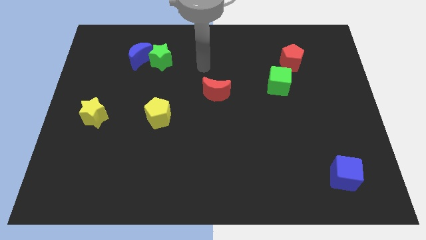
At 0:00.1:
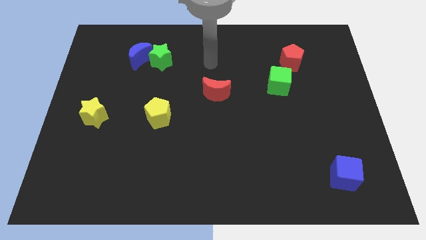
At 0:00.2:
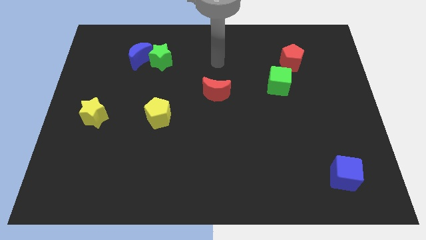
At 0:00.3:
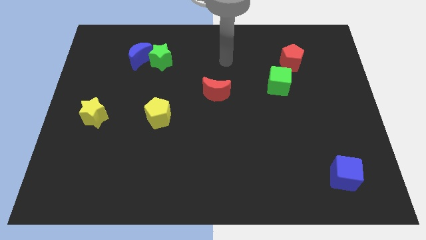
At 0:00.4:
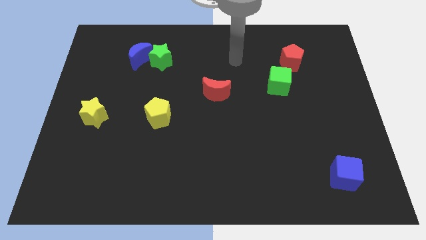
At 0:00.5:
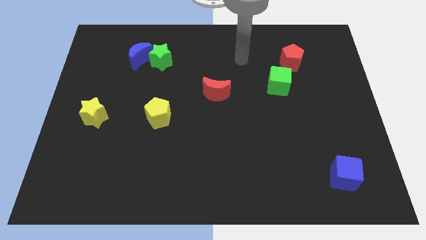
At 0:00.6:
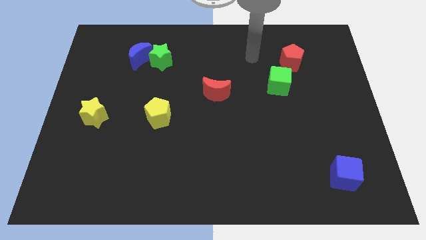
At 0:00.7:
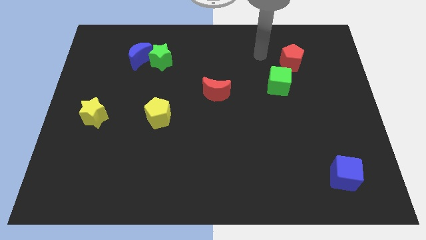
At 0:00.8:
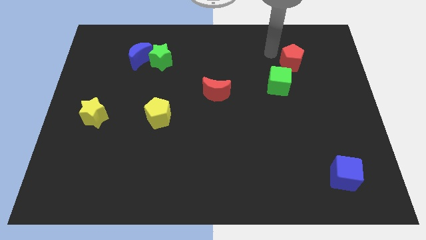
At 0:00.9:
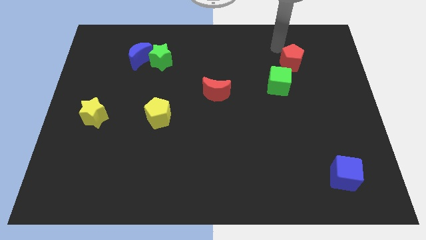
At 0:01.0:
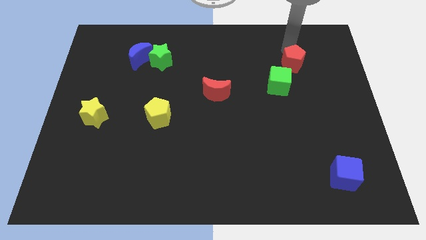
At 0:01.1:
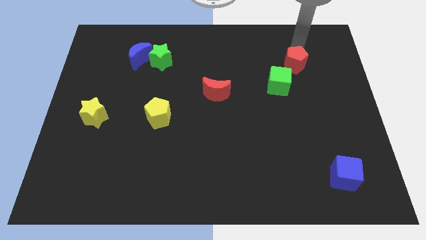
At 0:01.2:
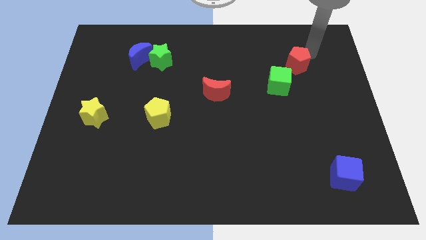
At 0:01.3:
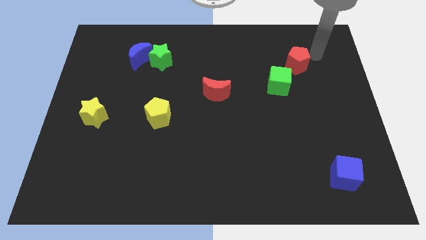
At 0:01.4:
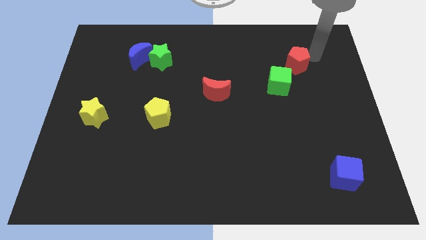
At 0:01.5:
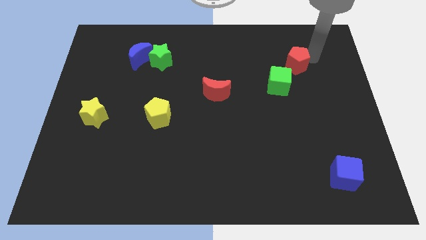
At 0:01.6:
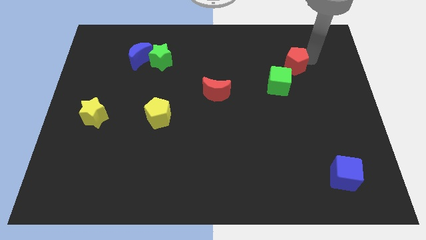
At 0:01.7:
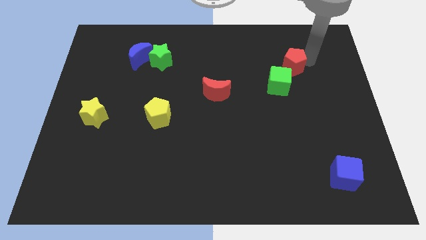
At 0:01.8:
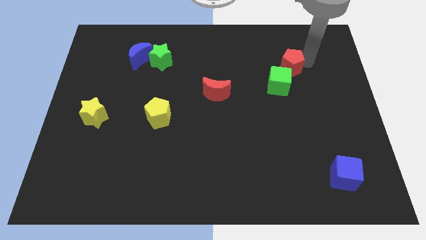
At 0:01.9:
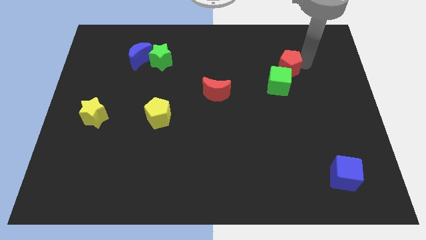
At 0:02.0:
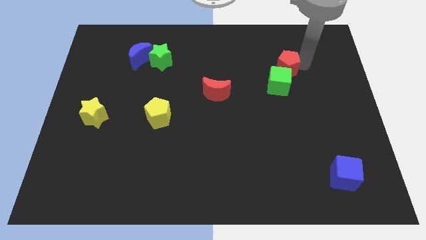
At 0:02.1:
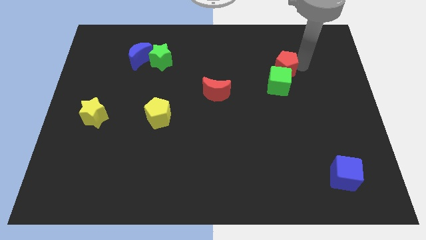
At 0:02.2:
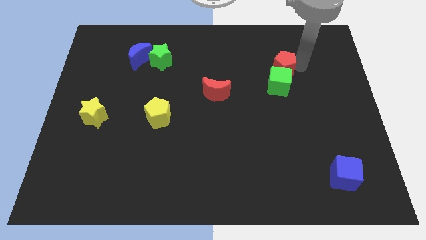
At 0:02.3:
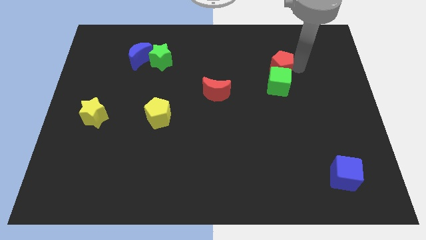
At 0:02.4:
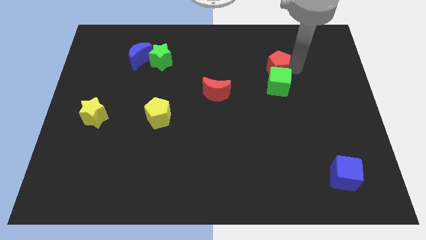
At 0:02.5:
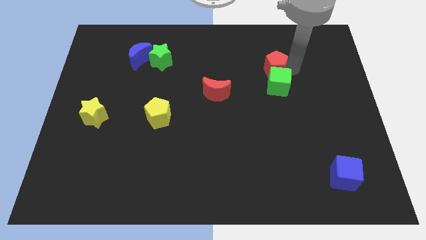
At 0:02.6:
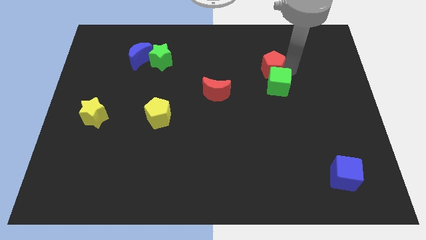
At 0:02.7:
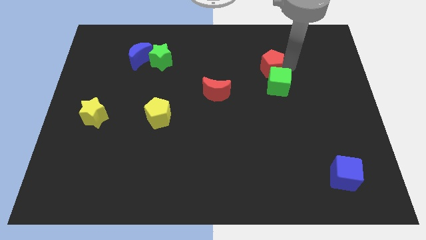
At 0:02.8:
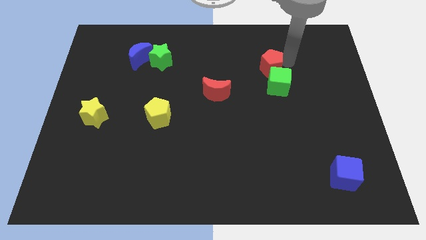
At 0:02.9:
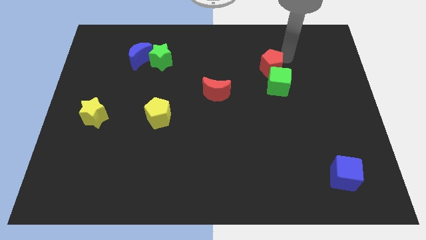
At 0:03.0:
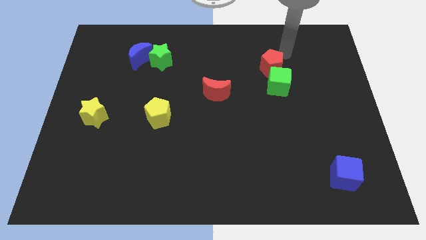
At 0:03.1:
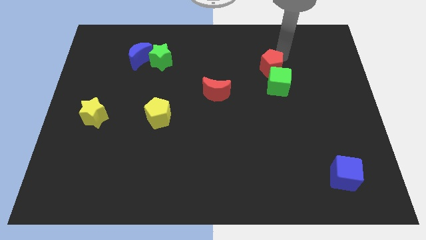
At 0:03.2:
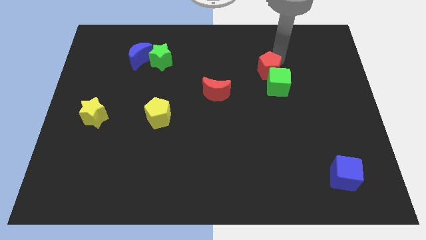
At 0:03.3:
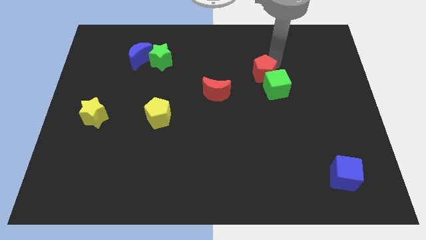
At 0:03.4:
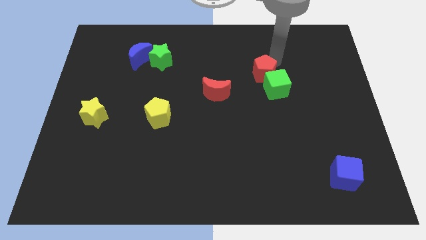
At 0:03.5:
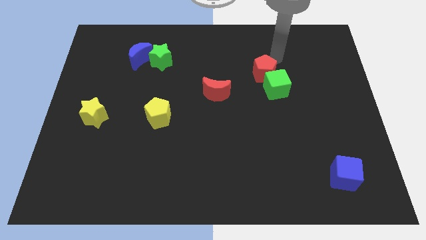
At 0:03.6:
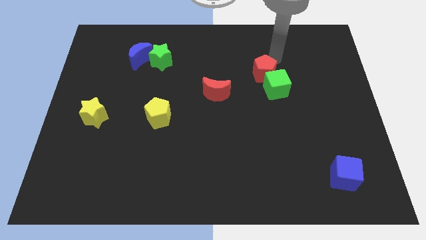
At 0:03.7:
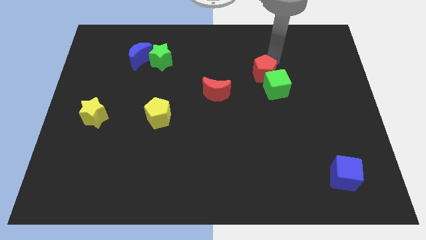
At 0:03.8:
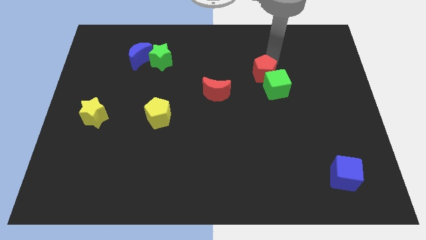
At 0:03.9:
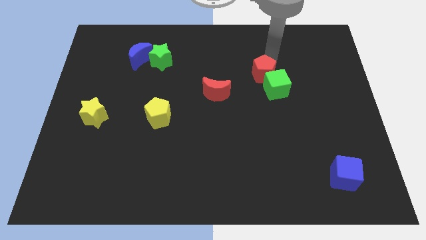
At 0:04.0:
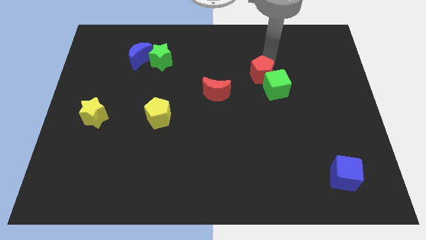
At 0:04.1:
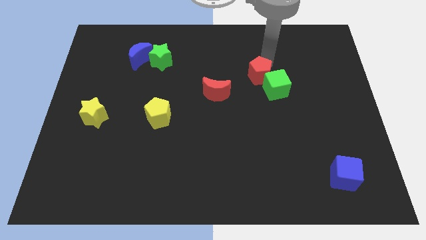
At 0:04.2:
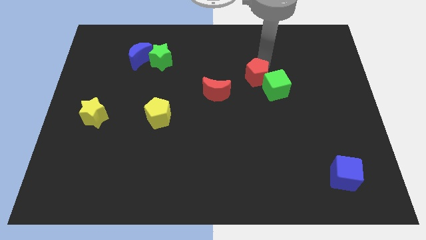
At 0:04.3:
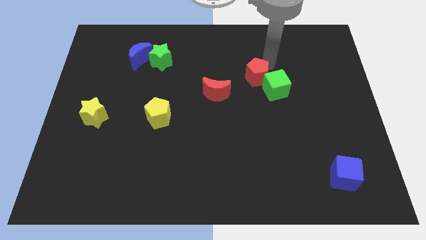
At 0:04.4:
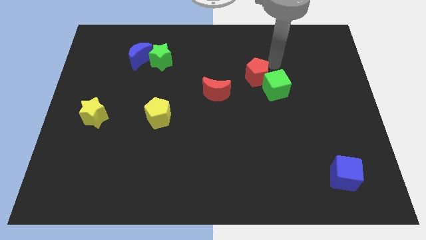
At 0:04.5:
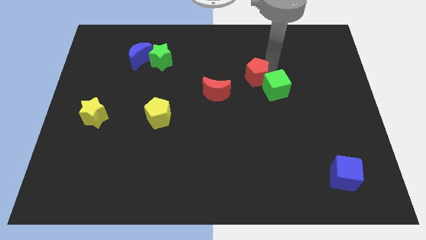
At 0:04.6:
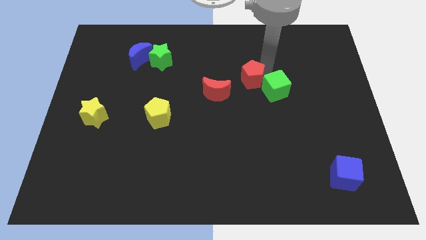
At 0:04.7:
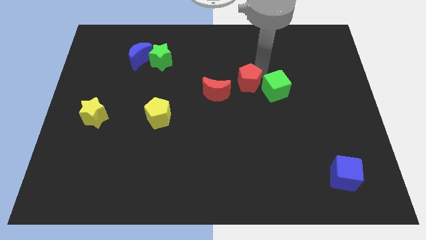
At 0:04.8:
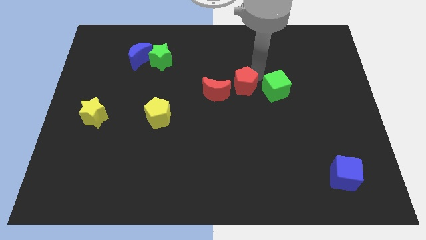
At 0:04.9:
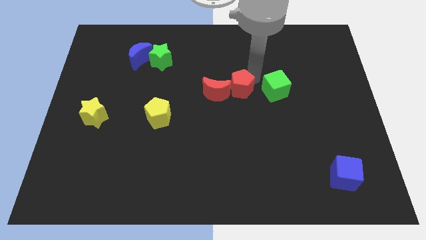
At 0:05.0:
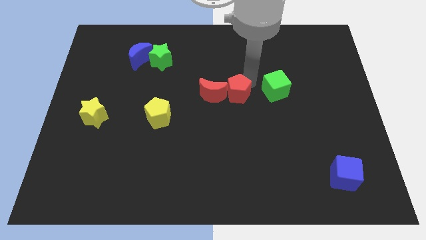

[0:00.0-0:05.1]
push the red pentagon towards the red moon

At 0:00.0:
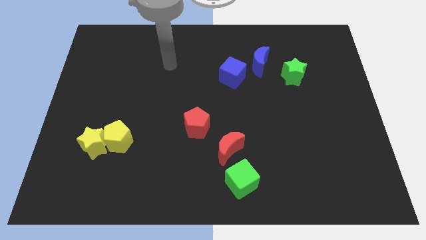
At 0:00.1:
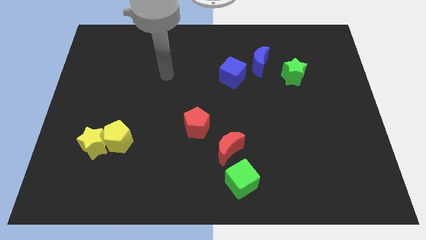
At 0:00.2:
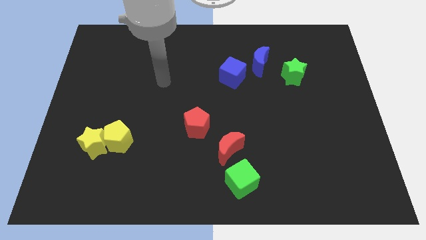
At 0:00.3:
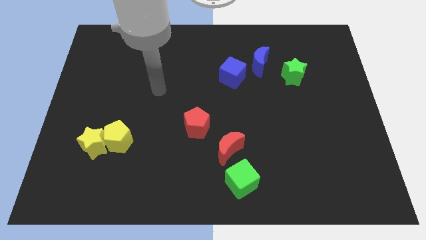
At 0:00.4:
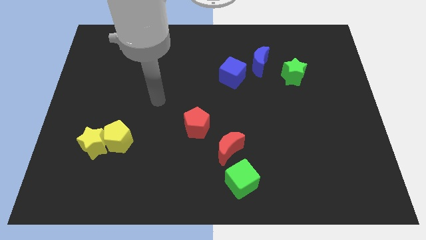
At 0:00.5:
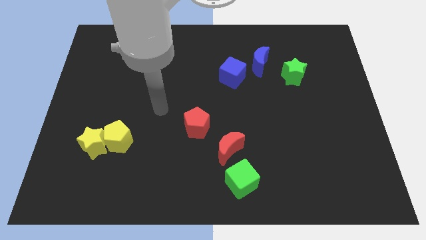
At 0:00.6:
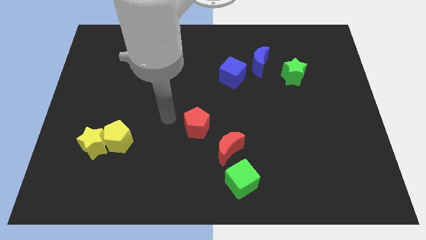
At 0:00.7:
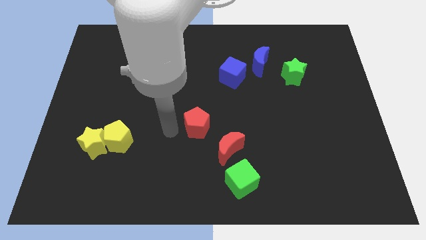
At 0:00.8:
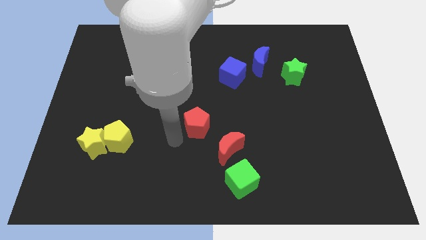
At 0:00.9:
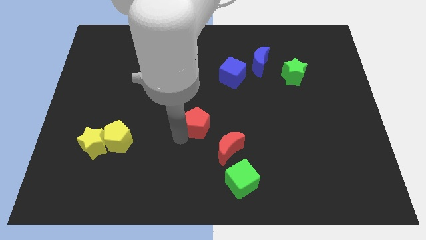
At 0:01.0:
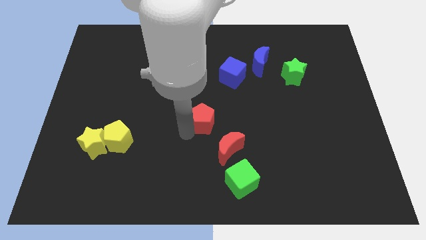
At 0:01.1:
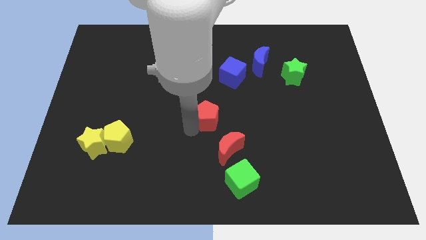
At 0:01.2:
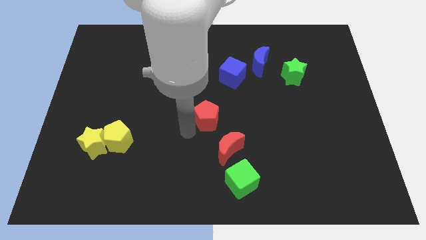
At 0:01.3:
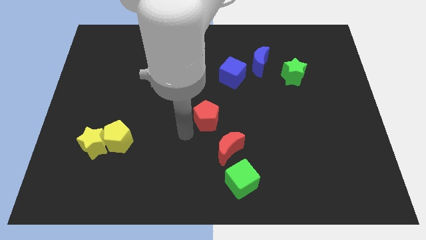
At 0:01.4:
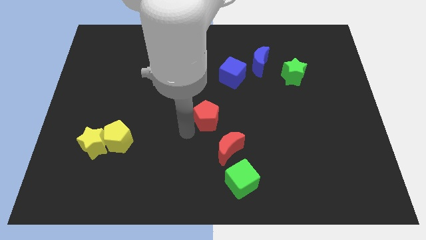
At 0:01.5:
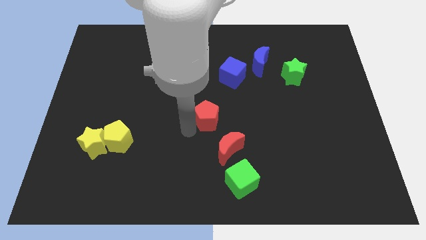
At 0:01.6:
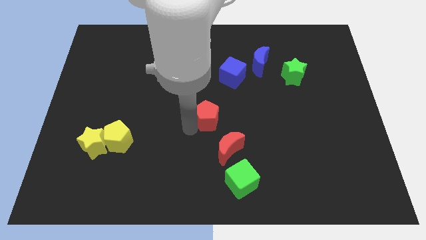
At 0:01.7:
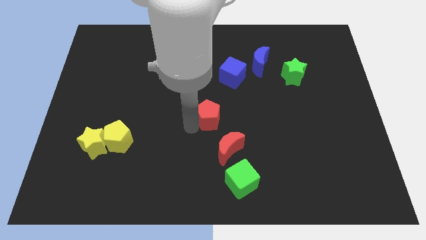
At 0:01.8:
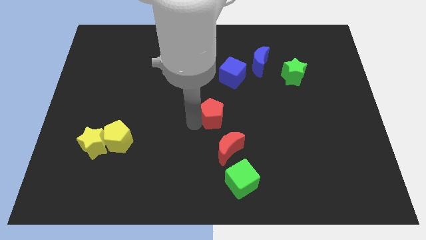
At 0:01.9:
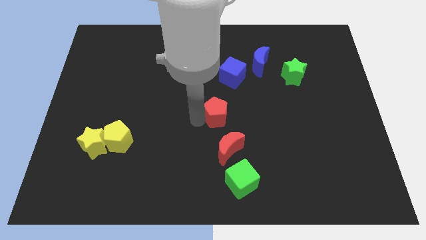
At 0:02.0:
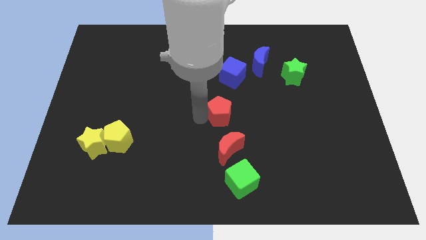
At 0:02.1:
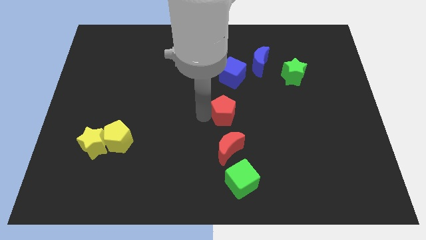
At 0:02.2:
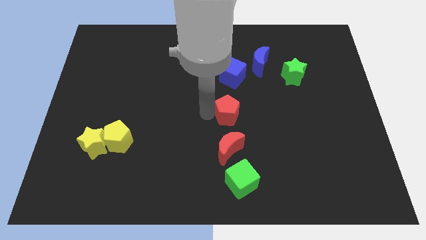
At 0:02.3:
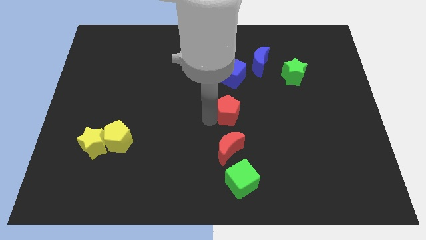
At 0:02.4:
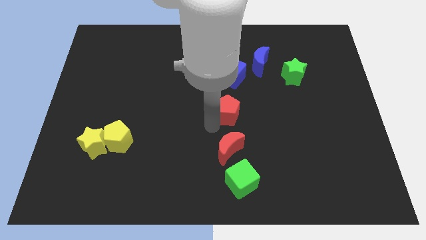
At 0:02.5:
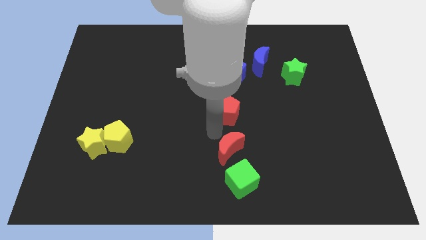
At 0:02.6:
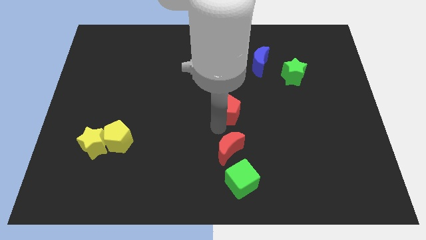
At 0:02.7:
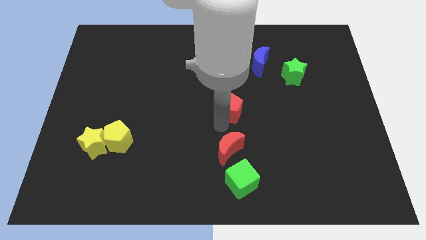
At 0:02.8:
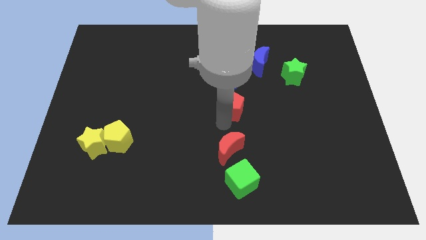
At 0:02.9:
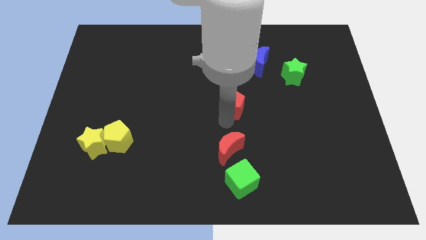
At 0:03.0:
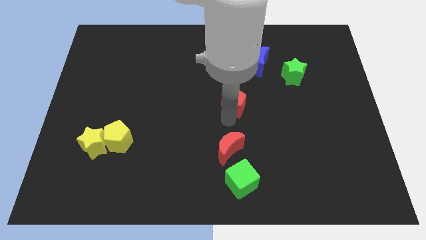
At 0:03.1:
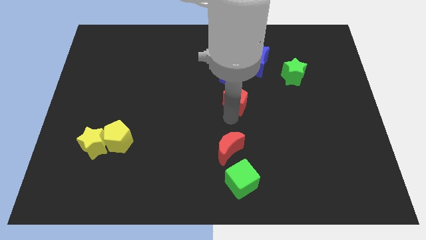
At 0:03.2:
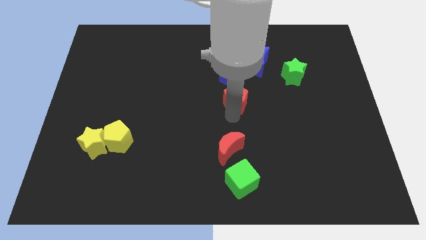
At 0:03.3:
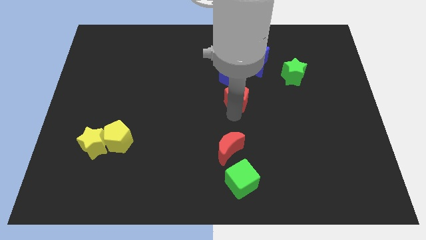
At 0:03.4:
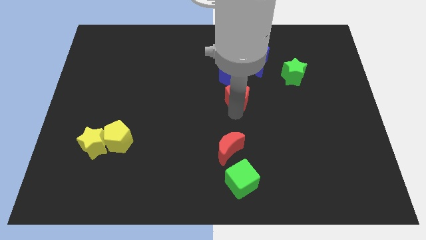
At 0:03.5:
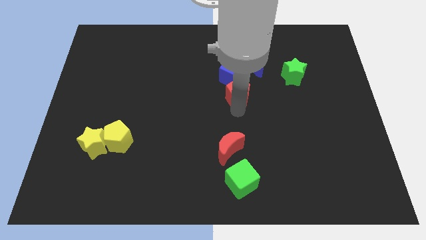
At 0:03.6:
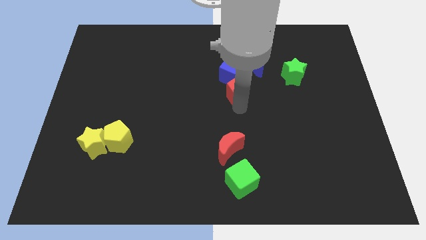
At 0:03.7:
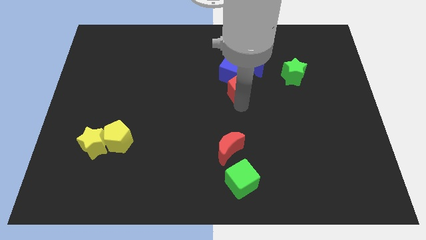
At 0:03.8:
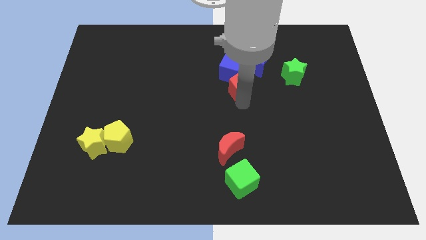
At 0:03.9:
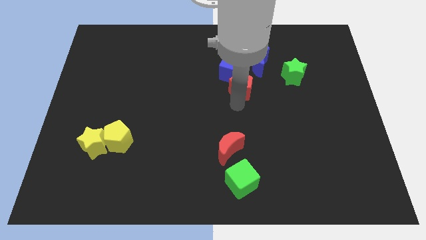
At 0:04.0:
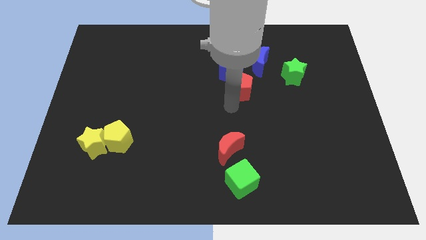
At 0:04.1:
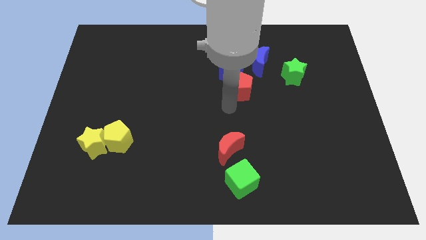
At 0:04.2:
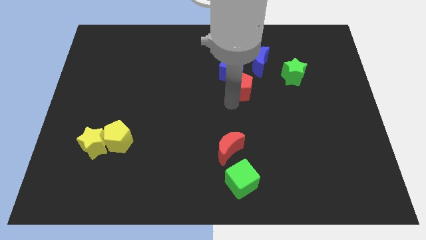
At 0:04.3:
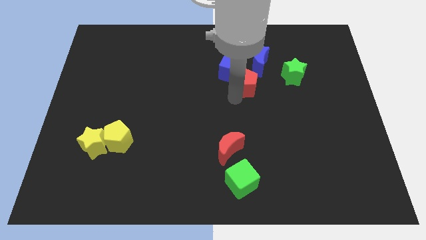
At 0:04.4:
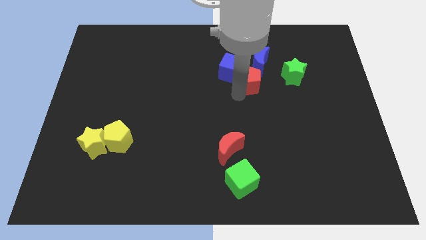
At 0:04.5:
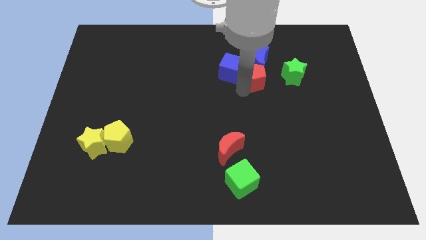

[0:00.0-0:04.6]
push the red pentagon towards the blue moon
